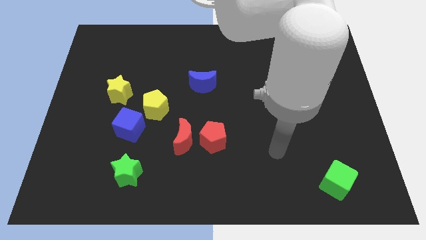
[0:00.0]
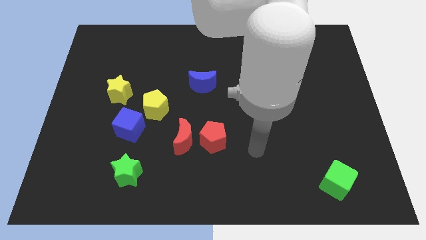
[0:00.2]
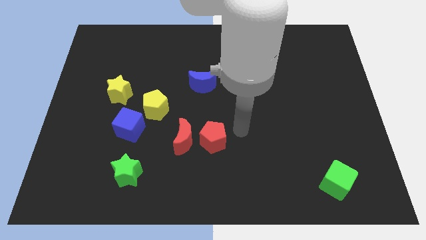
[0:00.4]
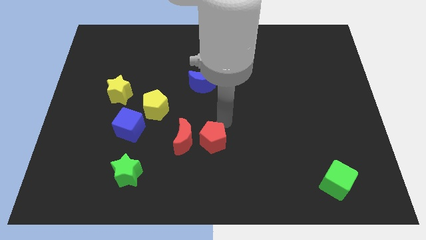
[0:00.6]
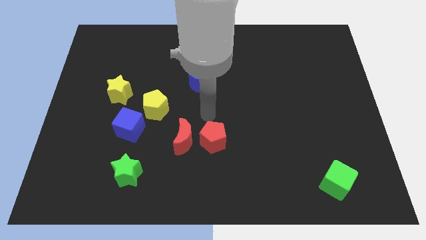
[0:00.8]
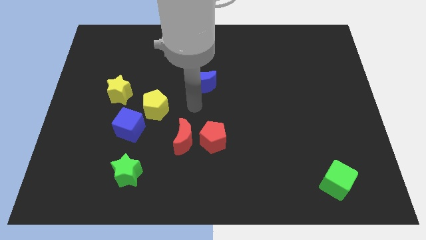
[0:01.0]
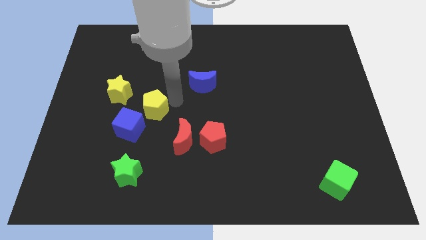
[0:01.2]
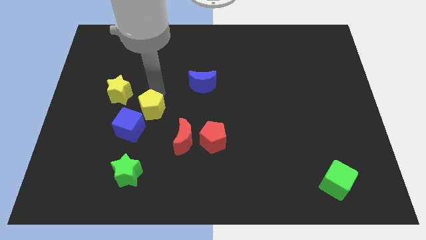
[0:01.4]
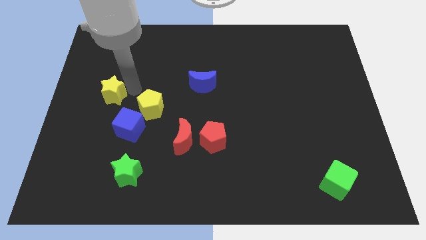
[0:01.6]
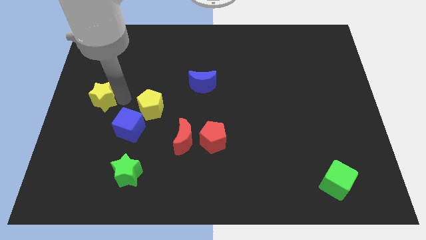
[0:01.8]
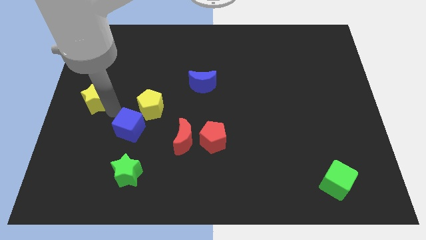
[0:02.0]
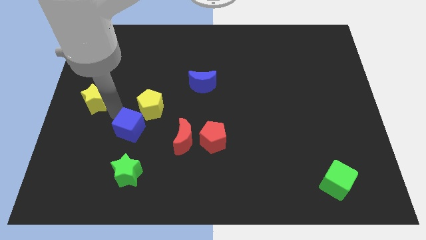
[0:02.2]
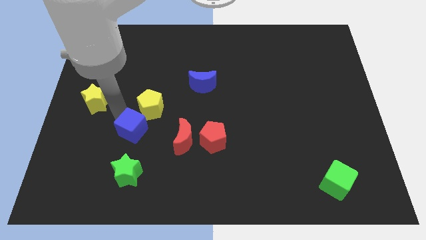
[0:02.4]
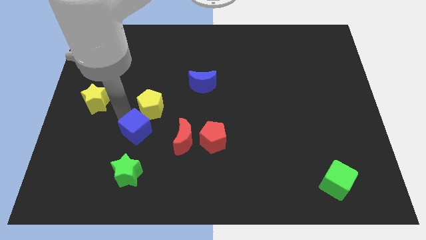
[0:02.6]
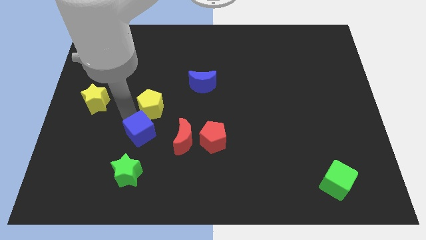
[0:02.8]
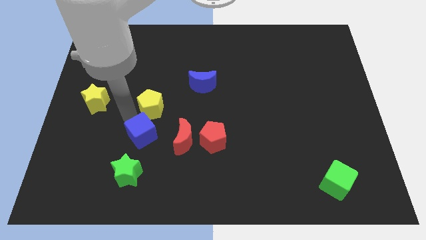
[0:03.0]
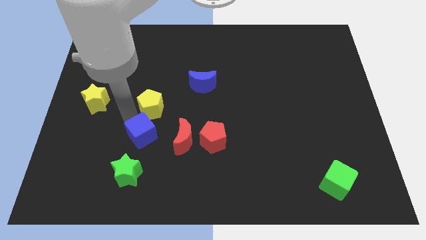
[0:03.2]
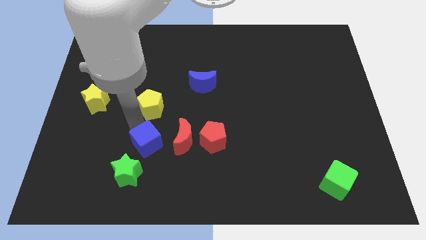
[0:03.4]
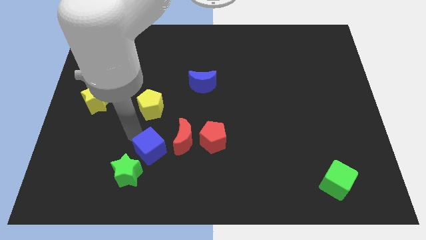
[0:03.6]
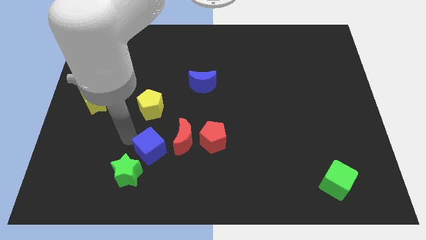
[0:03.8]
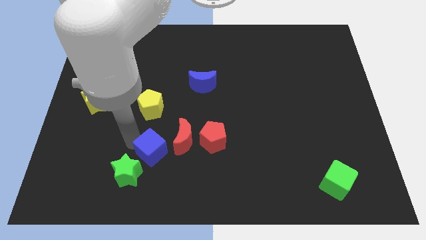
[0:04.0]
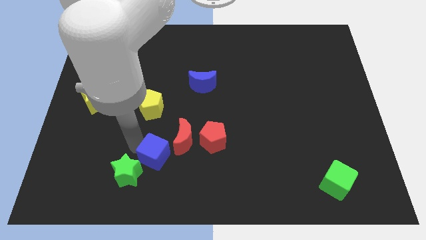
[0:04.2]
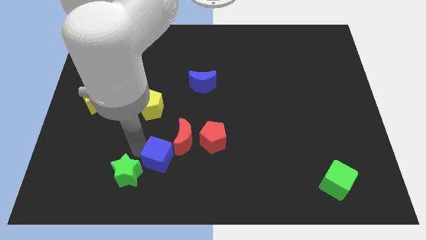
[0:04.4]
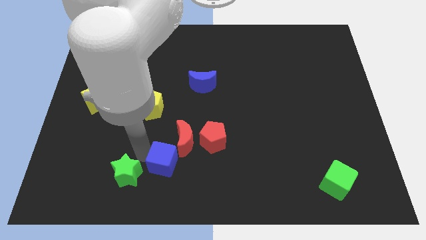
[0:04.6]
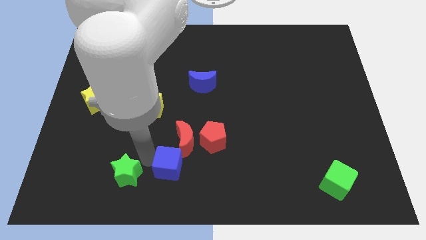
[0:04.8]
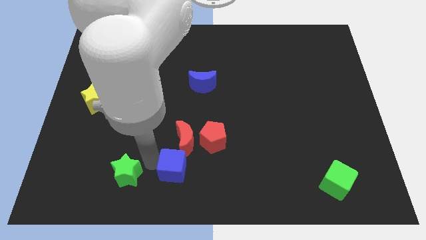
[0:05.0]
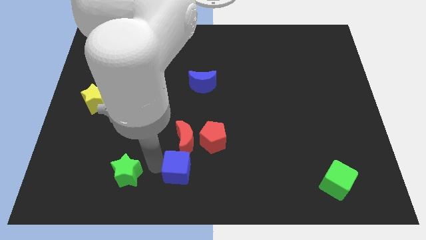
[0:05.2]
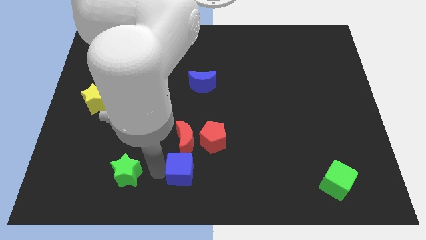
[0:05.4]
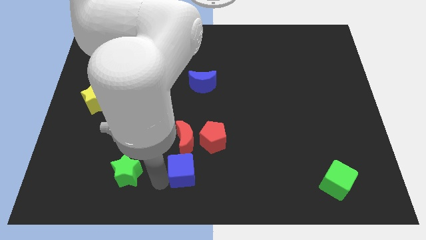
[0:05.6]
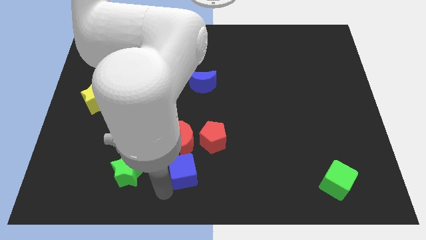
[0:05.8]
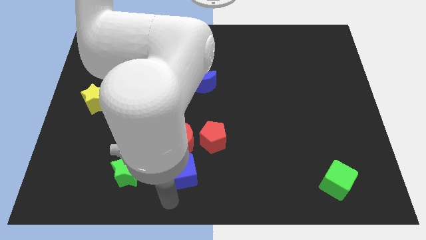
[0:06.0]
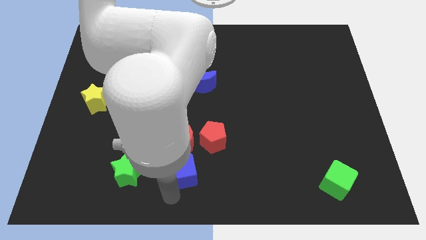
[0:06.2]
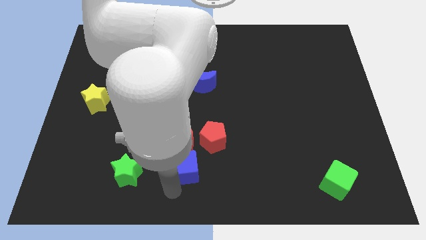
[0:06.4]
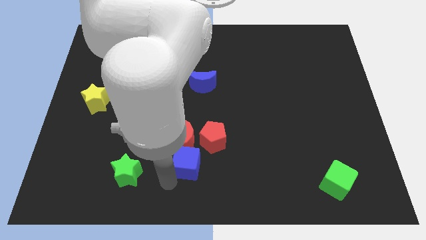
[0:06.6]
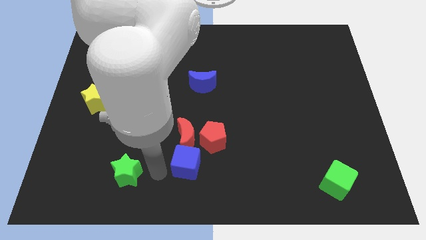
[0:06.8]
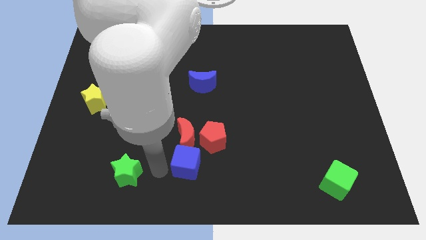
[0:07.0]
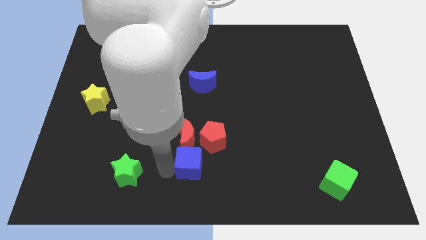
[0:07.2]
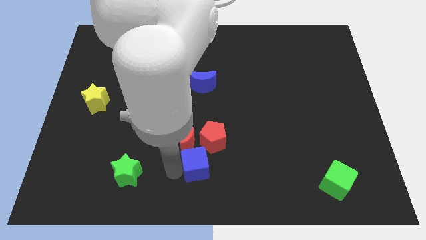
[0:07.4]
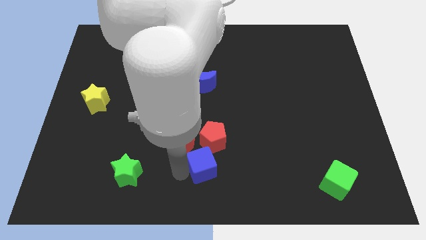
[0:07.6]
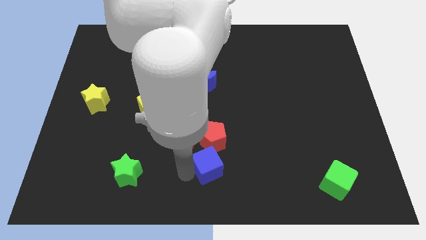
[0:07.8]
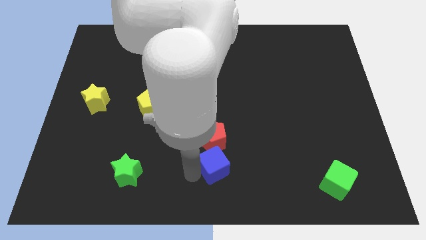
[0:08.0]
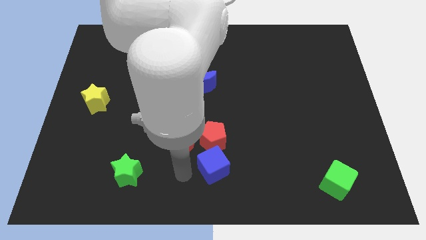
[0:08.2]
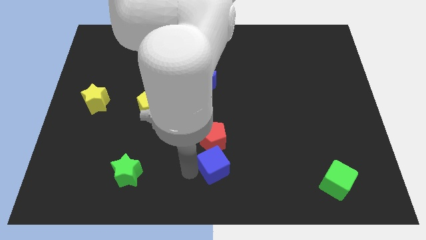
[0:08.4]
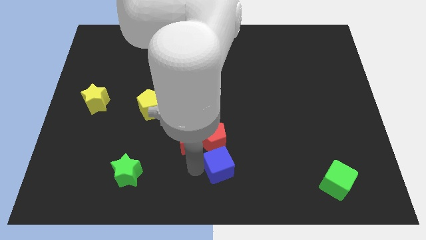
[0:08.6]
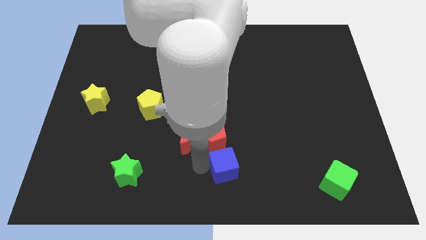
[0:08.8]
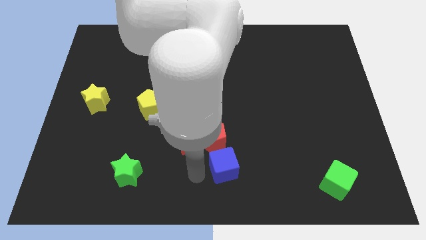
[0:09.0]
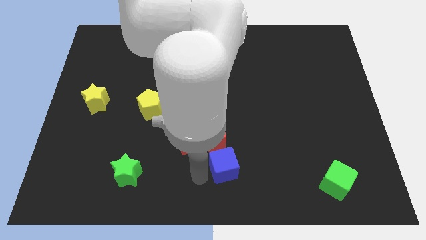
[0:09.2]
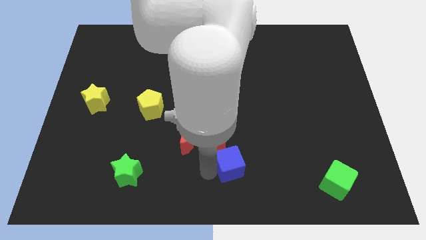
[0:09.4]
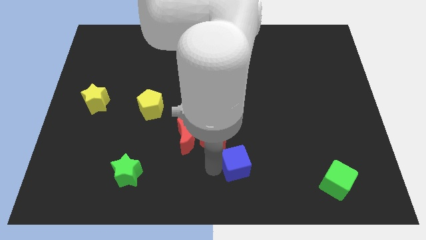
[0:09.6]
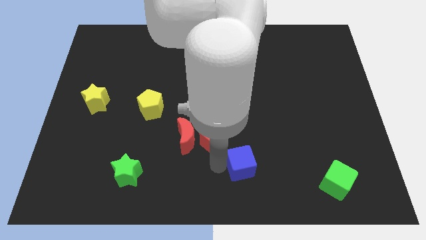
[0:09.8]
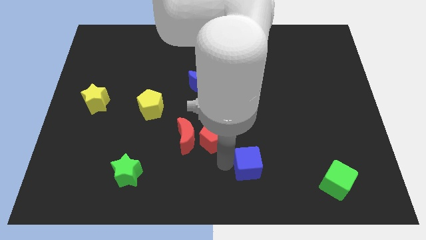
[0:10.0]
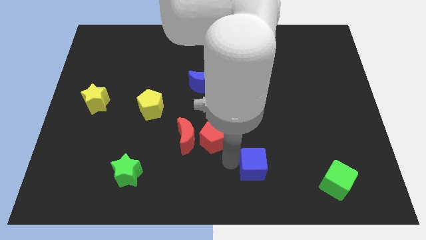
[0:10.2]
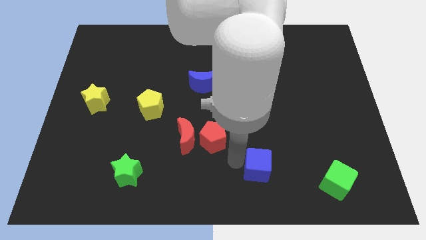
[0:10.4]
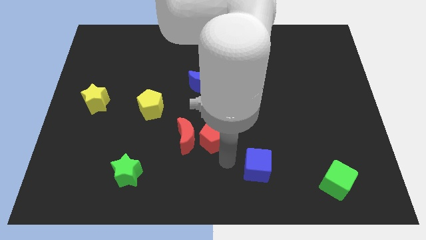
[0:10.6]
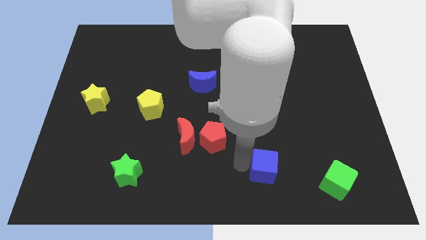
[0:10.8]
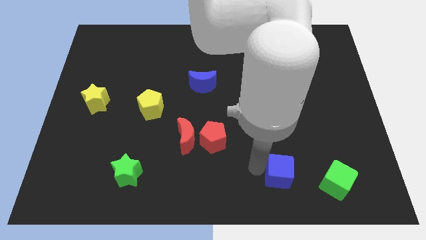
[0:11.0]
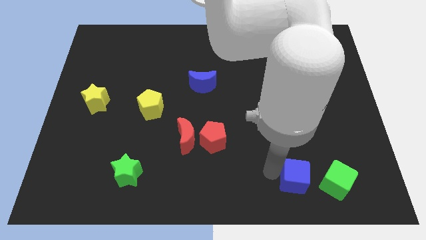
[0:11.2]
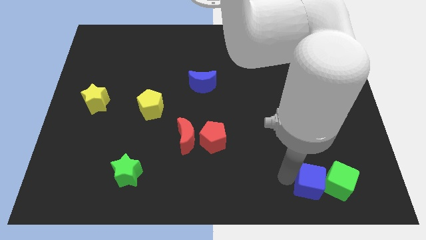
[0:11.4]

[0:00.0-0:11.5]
push the blue cube next to the green cube

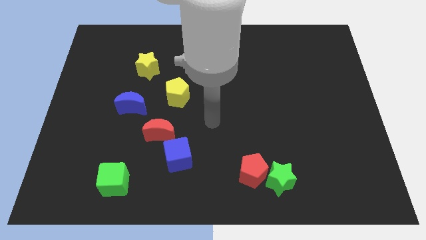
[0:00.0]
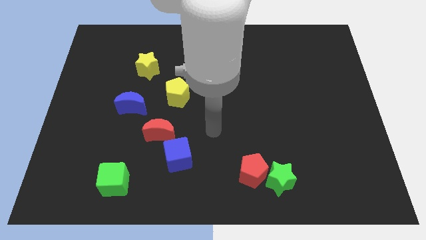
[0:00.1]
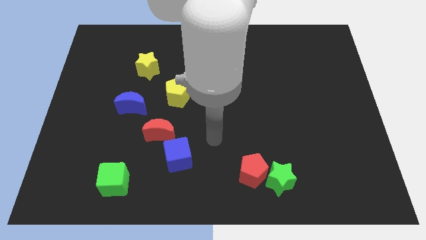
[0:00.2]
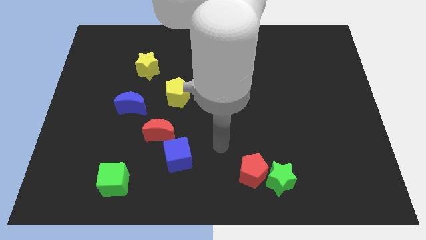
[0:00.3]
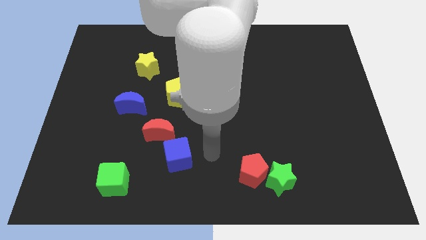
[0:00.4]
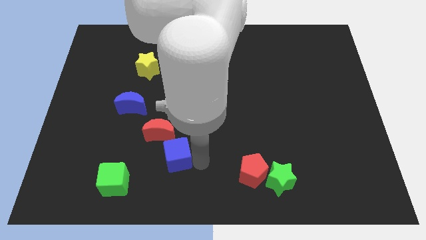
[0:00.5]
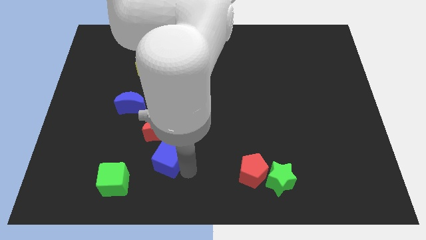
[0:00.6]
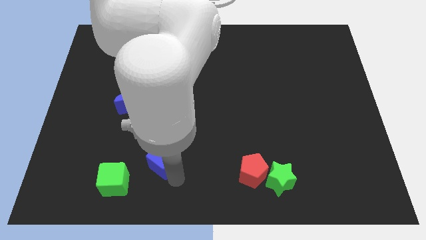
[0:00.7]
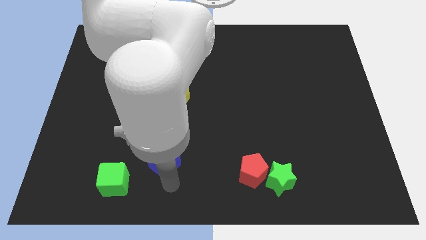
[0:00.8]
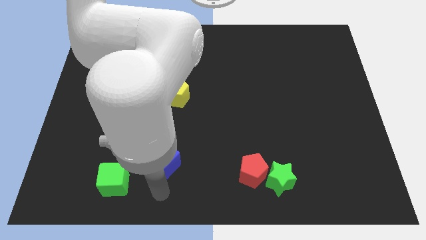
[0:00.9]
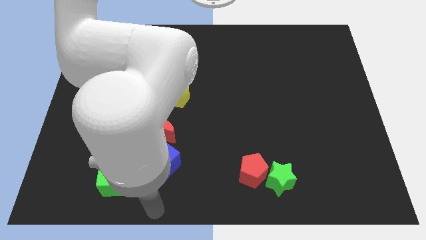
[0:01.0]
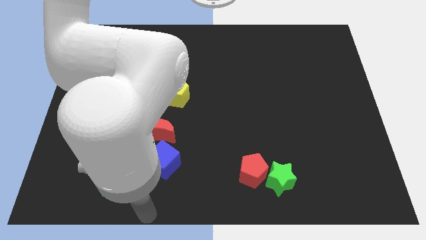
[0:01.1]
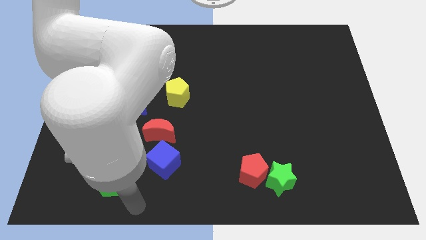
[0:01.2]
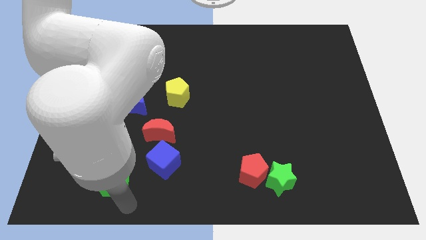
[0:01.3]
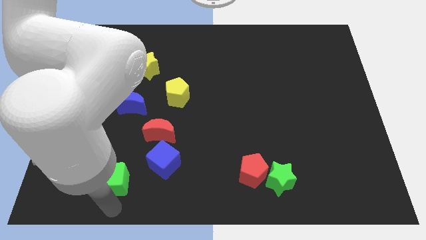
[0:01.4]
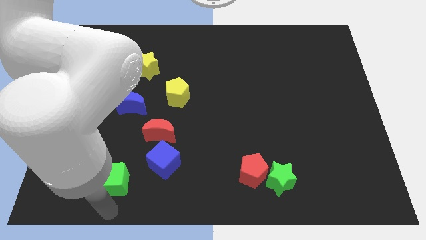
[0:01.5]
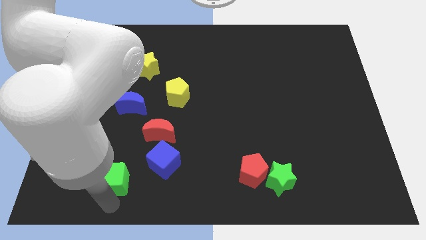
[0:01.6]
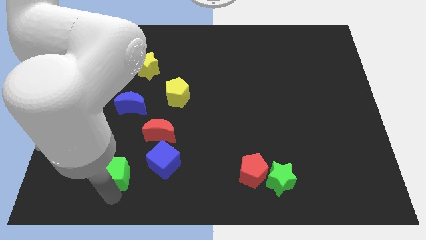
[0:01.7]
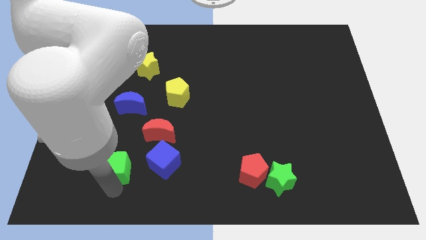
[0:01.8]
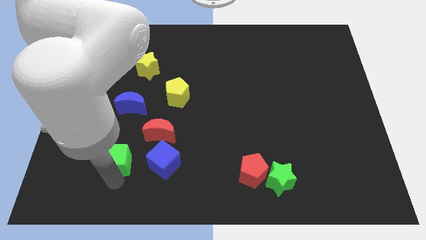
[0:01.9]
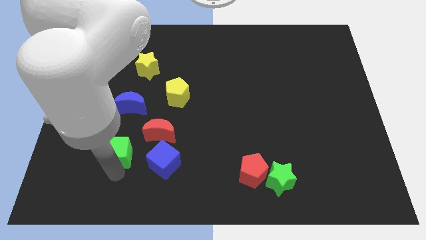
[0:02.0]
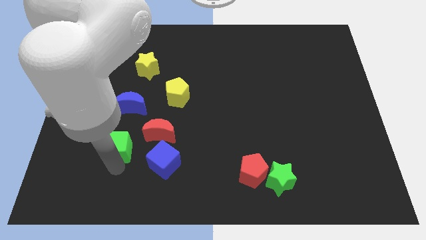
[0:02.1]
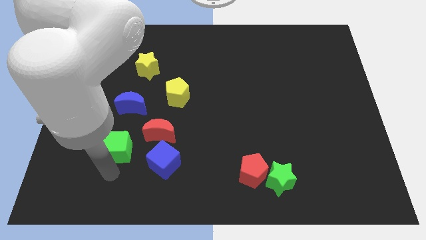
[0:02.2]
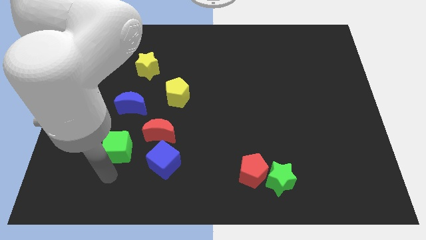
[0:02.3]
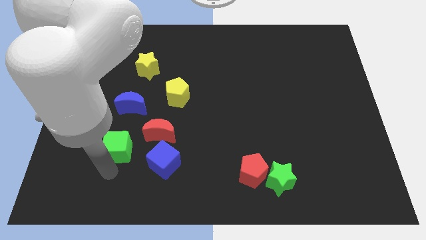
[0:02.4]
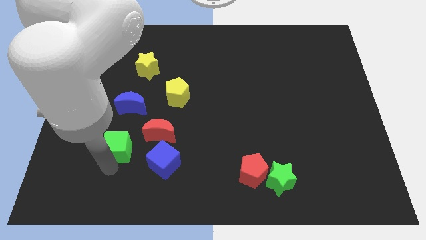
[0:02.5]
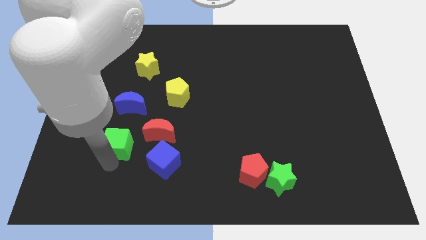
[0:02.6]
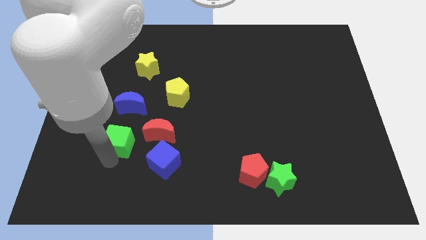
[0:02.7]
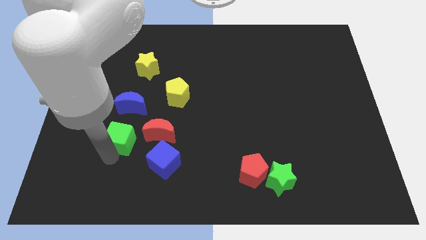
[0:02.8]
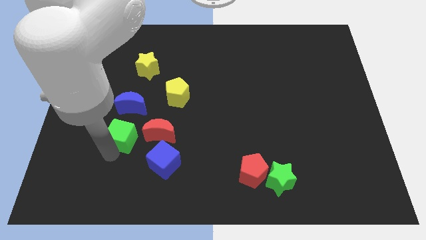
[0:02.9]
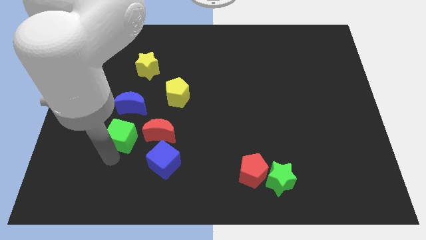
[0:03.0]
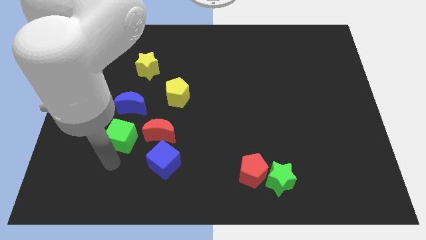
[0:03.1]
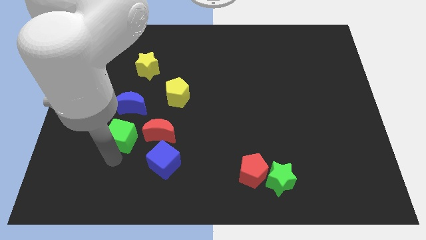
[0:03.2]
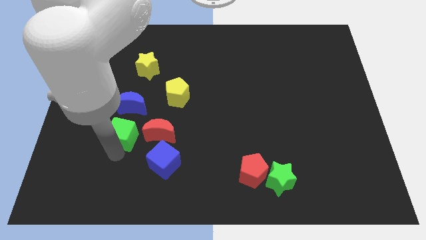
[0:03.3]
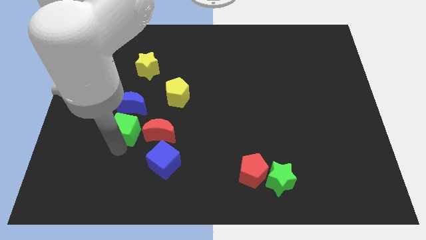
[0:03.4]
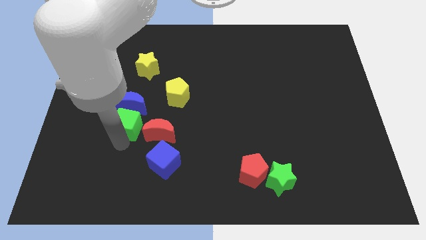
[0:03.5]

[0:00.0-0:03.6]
push the green cube to the blue moon
